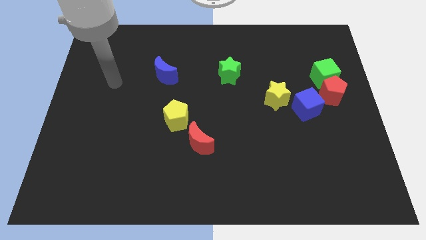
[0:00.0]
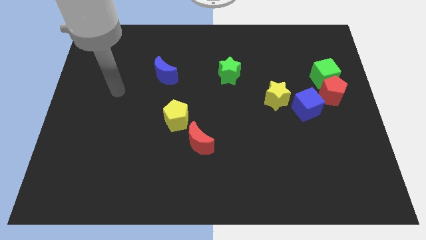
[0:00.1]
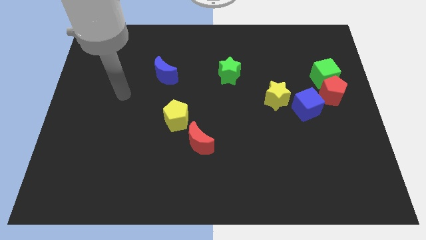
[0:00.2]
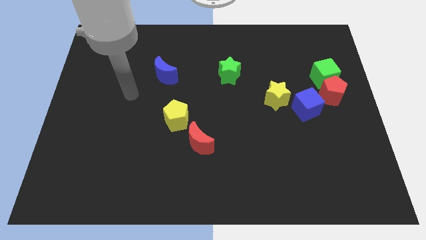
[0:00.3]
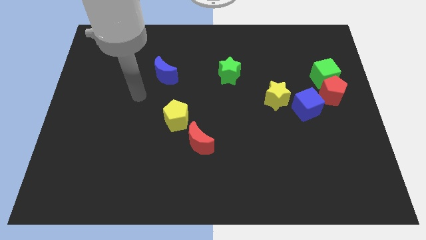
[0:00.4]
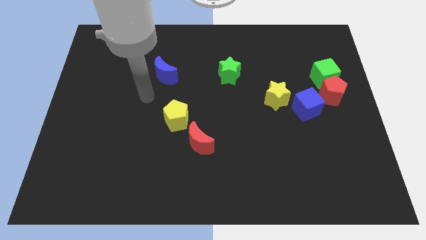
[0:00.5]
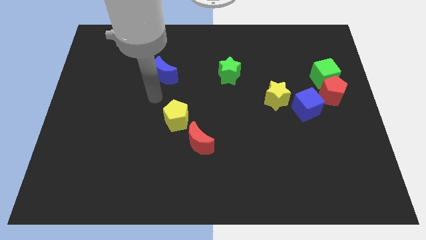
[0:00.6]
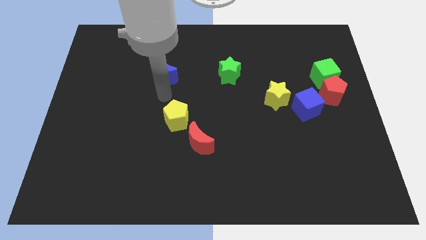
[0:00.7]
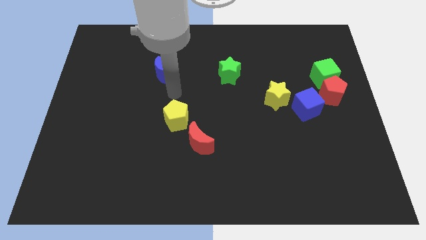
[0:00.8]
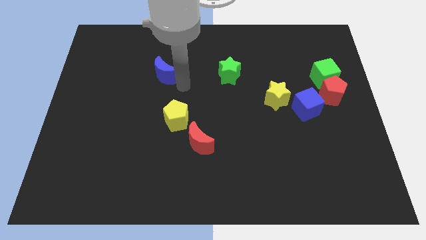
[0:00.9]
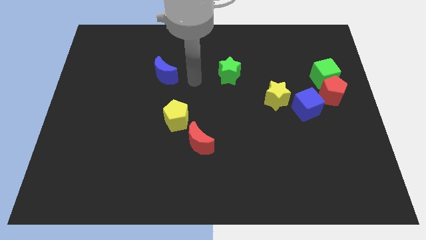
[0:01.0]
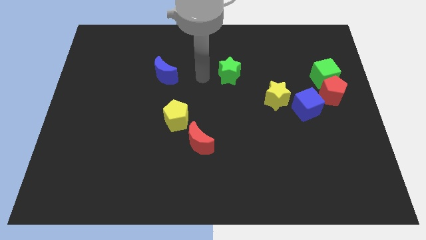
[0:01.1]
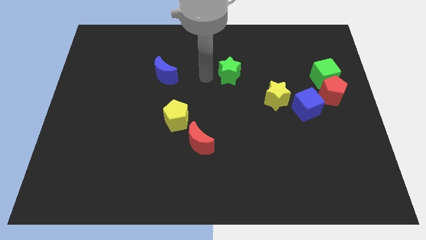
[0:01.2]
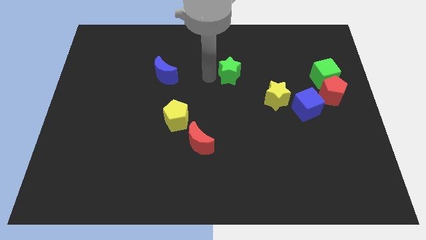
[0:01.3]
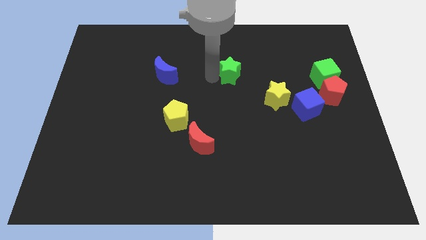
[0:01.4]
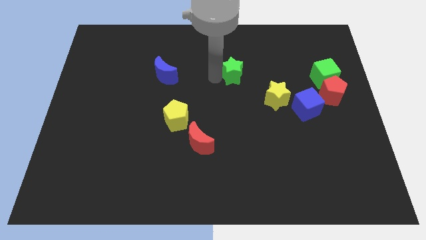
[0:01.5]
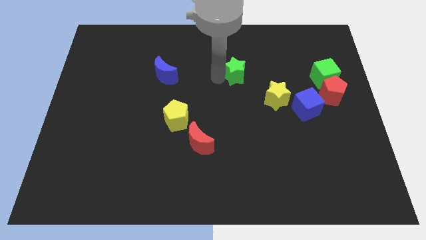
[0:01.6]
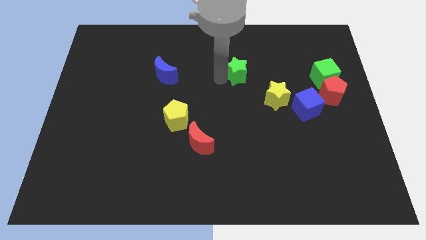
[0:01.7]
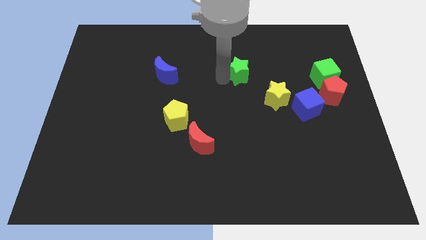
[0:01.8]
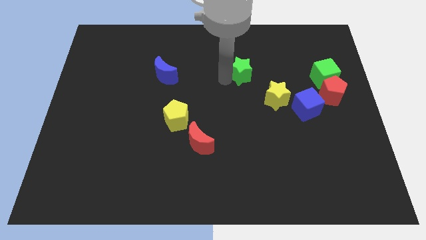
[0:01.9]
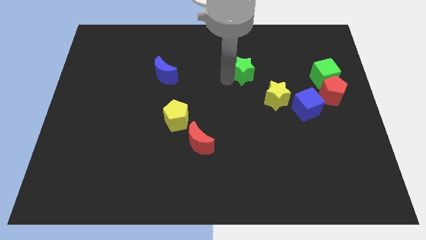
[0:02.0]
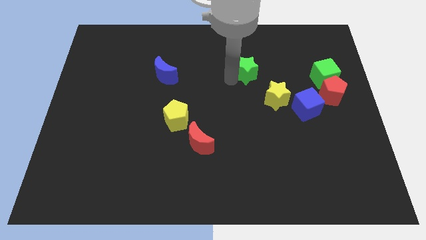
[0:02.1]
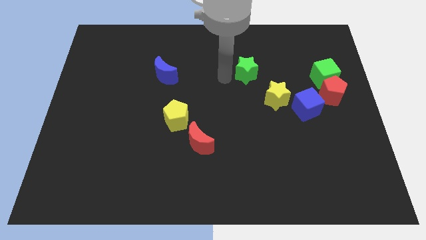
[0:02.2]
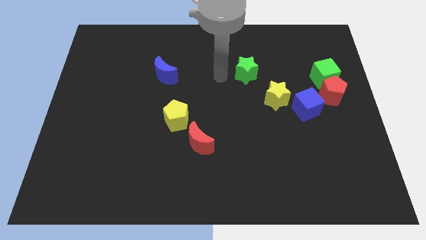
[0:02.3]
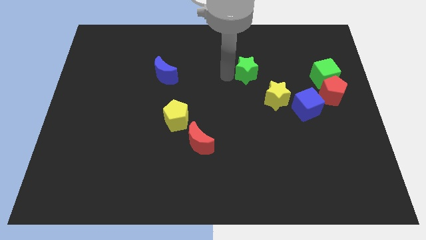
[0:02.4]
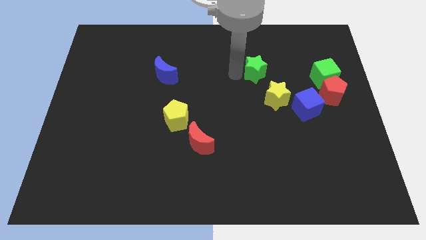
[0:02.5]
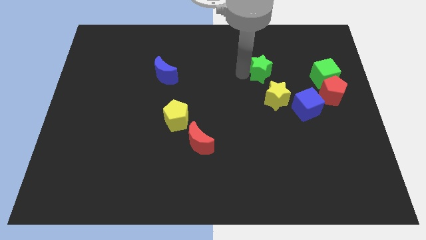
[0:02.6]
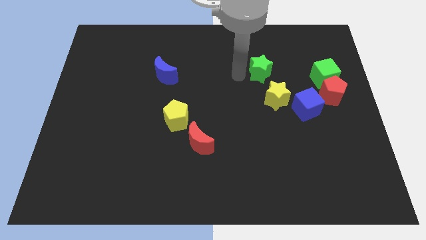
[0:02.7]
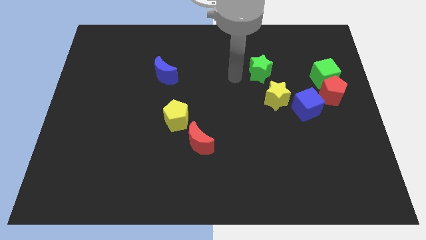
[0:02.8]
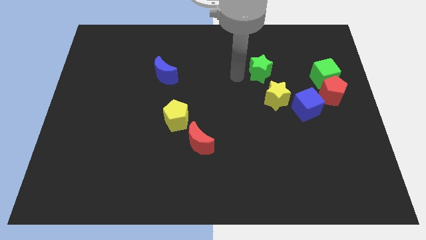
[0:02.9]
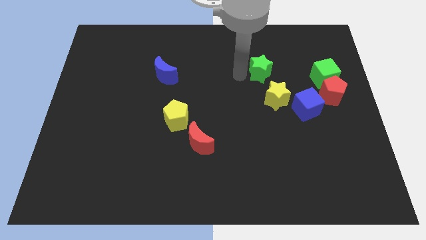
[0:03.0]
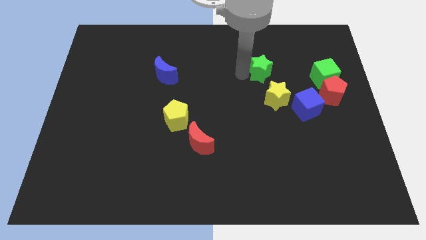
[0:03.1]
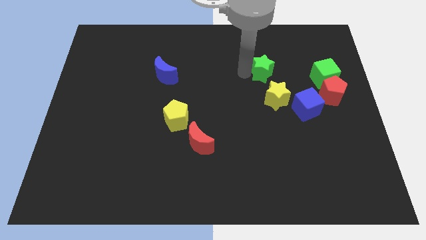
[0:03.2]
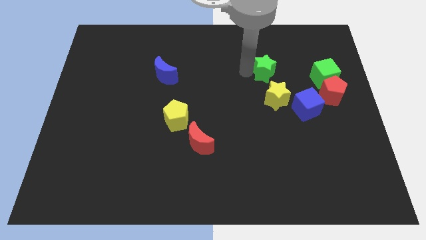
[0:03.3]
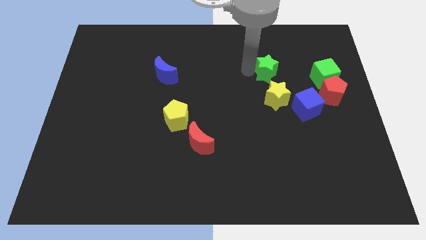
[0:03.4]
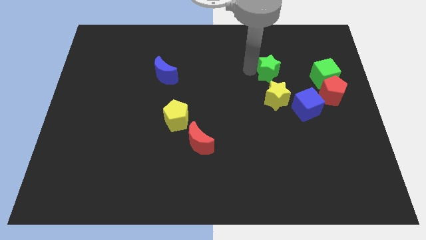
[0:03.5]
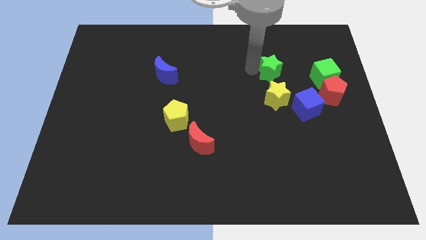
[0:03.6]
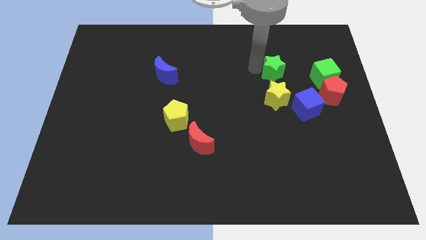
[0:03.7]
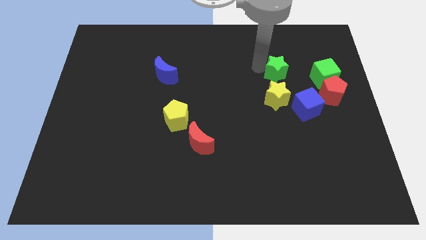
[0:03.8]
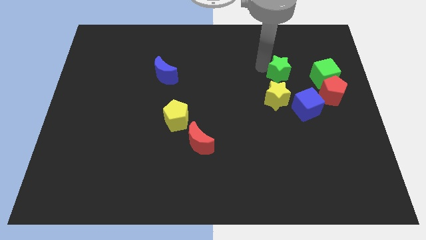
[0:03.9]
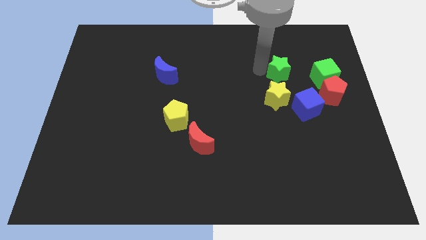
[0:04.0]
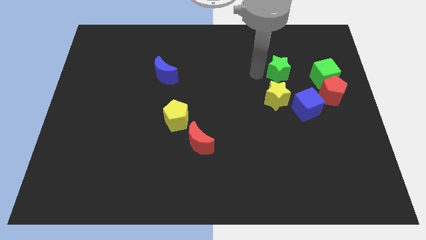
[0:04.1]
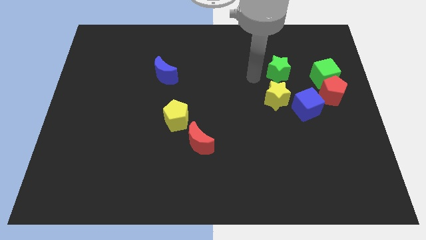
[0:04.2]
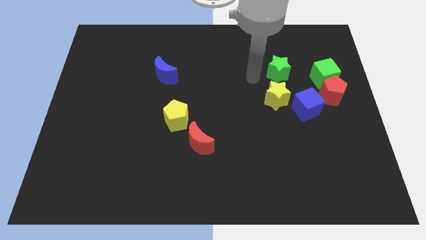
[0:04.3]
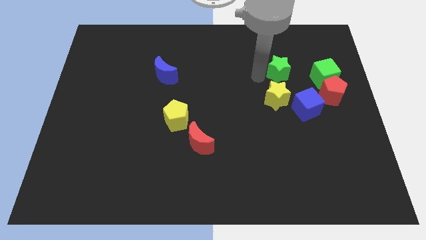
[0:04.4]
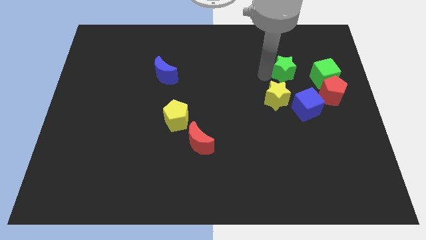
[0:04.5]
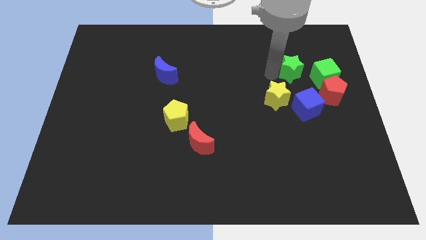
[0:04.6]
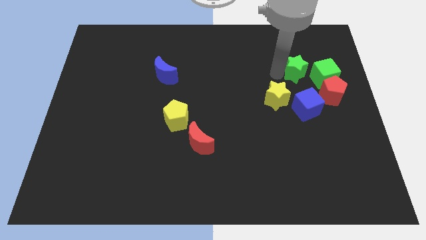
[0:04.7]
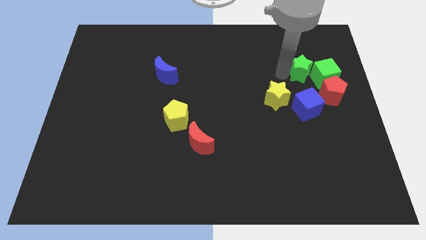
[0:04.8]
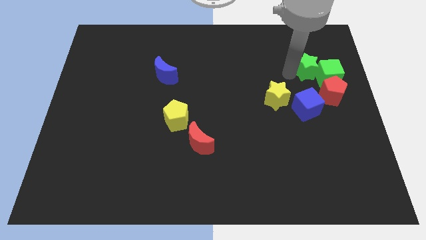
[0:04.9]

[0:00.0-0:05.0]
slide the green star above the red pentagon

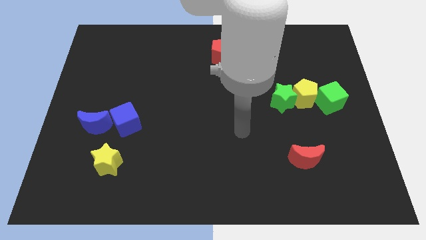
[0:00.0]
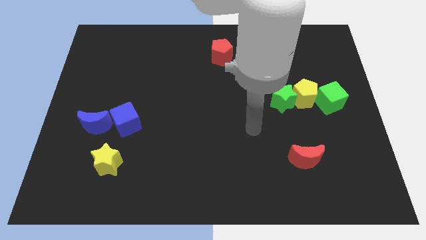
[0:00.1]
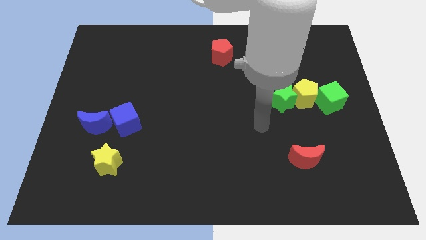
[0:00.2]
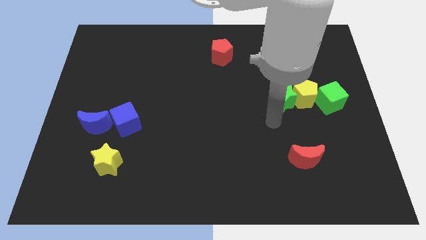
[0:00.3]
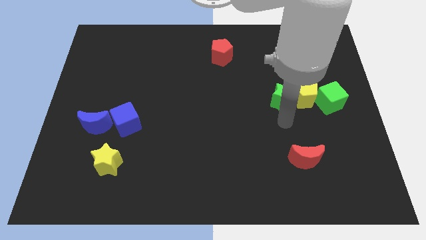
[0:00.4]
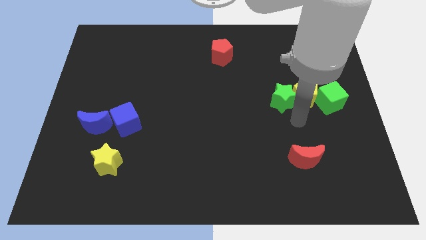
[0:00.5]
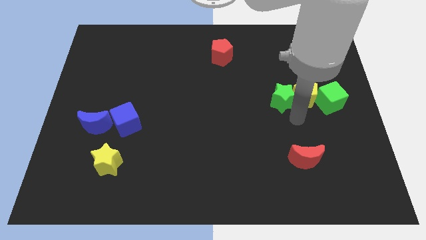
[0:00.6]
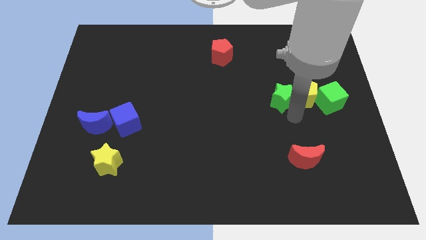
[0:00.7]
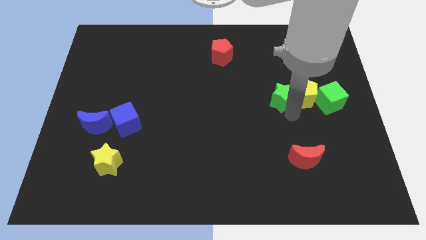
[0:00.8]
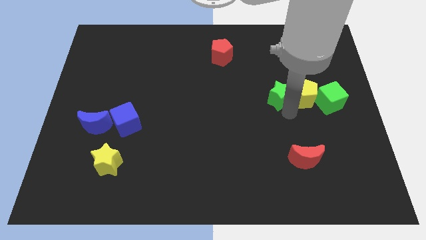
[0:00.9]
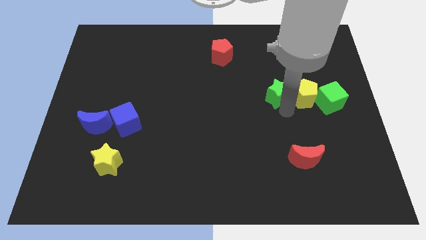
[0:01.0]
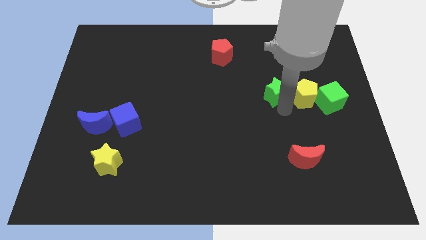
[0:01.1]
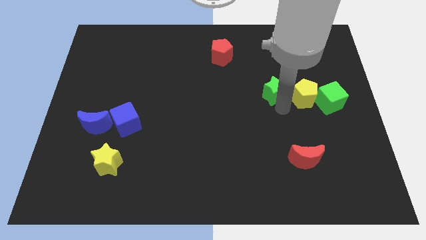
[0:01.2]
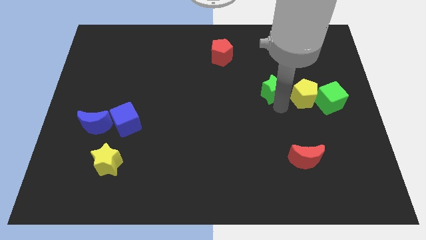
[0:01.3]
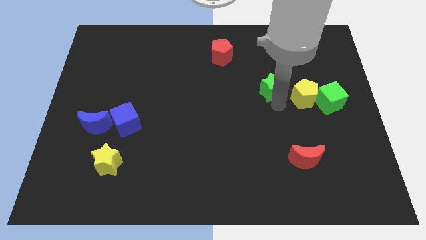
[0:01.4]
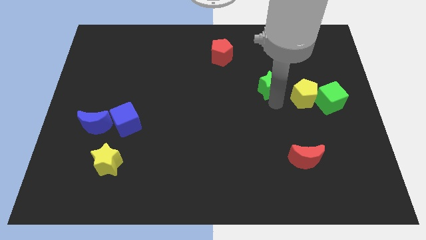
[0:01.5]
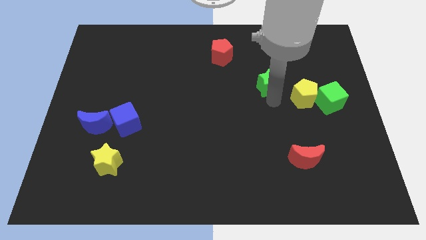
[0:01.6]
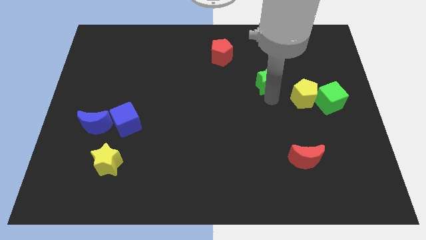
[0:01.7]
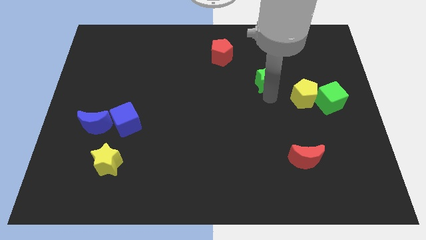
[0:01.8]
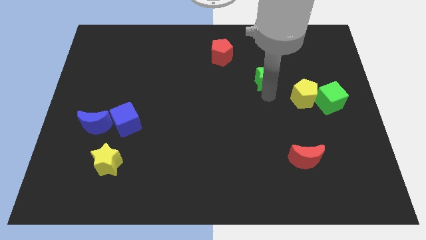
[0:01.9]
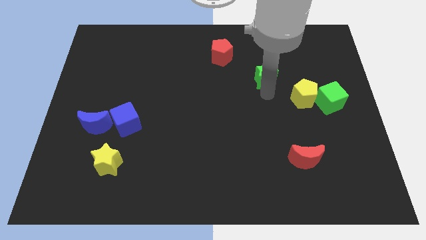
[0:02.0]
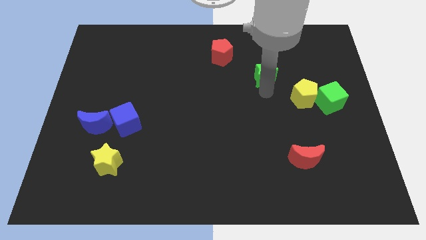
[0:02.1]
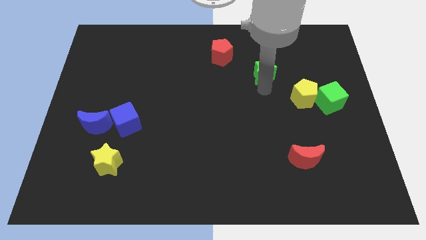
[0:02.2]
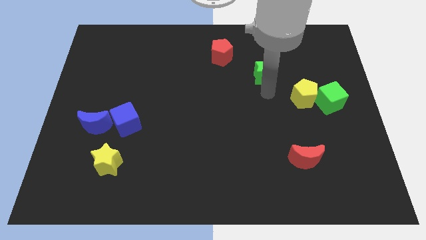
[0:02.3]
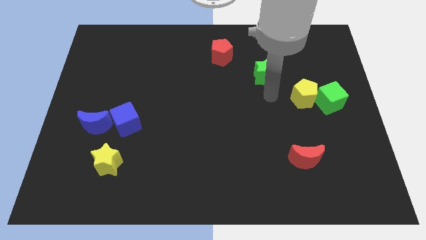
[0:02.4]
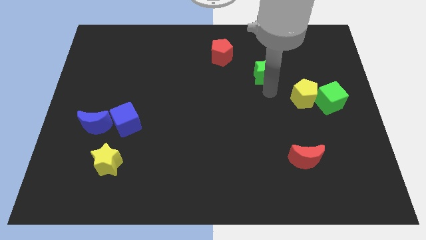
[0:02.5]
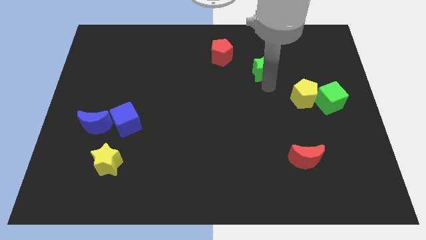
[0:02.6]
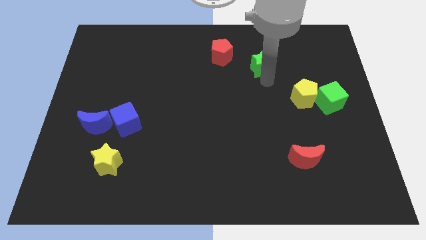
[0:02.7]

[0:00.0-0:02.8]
push the green star right of the red pentagon
